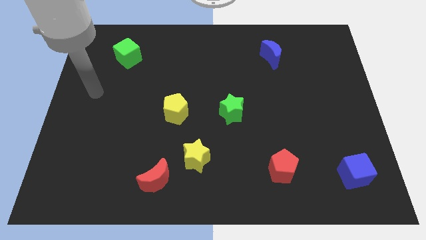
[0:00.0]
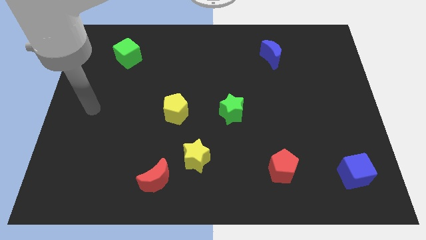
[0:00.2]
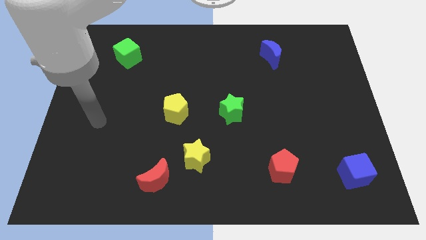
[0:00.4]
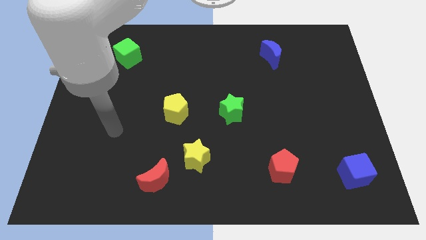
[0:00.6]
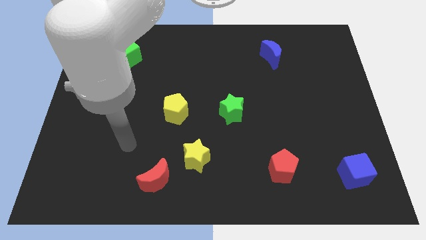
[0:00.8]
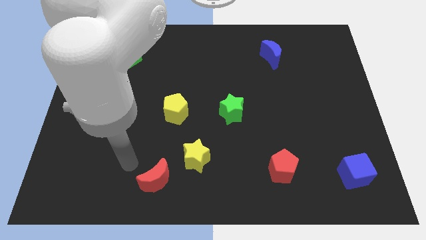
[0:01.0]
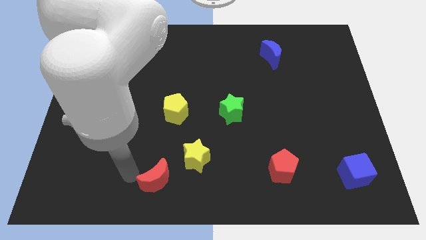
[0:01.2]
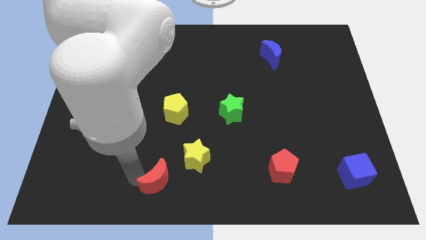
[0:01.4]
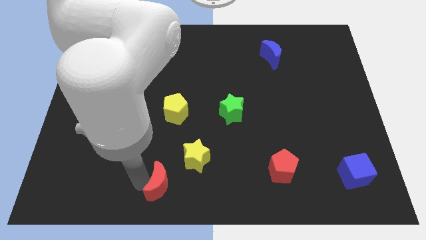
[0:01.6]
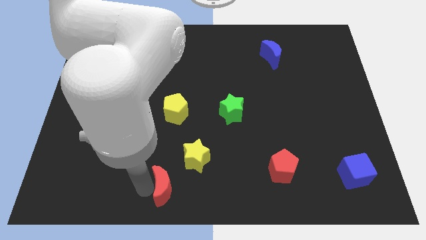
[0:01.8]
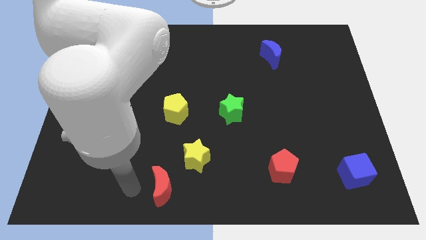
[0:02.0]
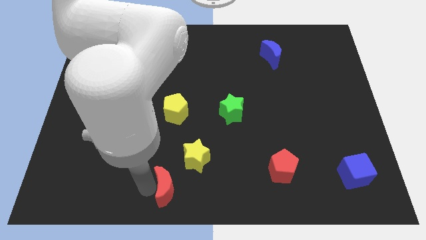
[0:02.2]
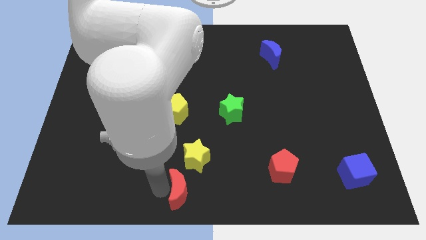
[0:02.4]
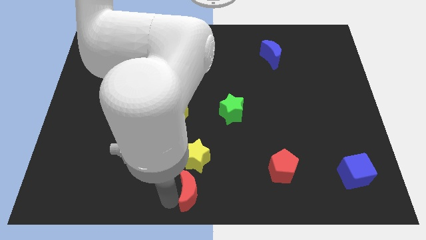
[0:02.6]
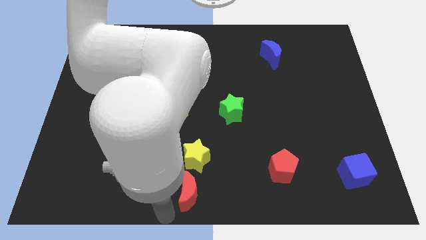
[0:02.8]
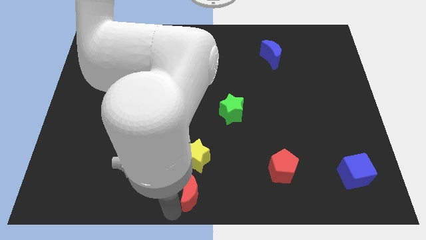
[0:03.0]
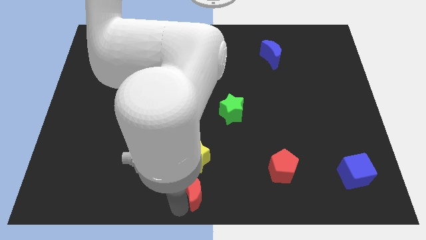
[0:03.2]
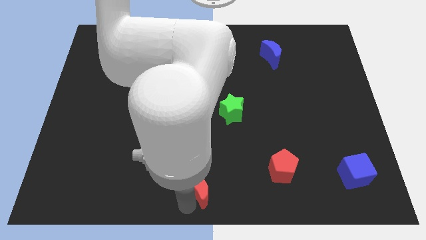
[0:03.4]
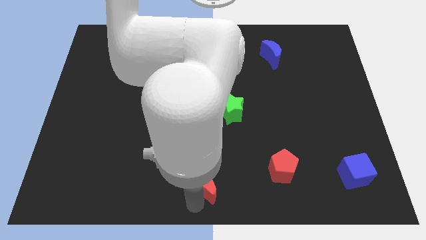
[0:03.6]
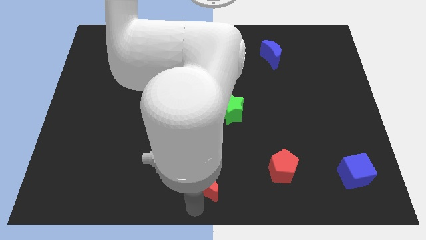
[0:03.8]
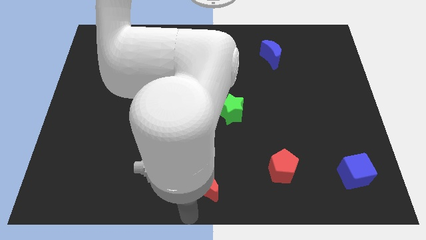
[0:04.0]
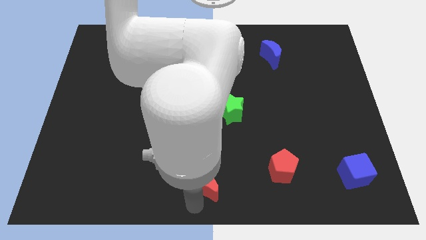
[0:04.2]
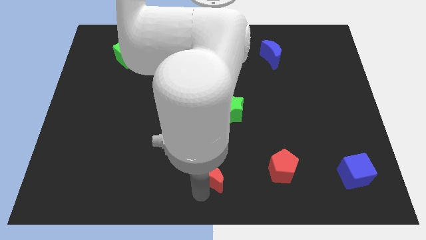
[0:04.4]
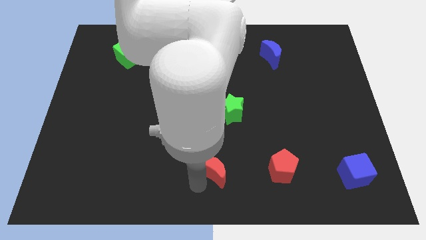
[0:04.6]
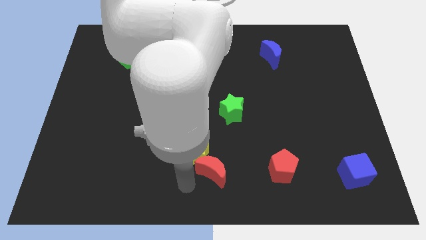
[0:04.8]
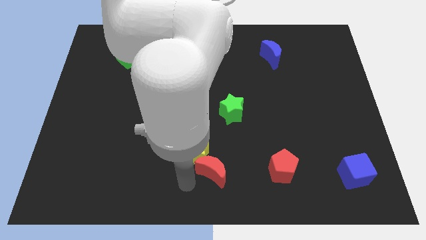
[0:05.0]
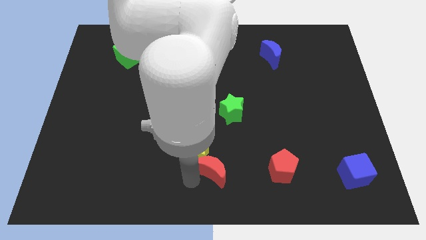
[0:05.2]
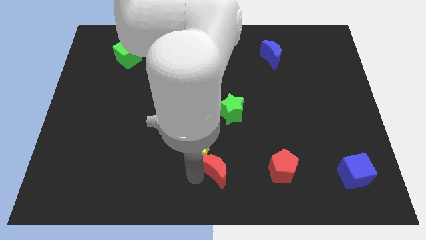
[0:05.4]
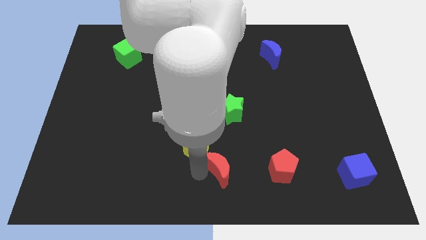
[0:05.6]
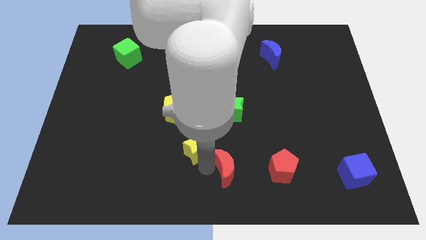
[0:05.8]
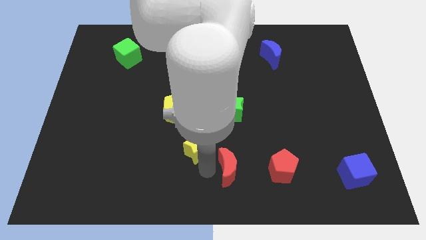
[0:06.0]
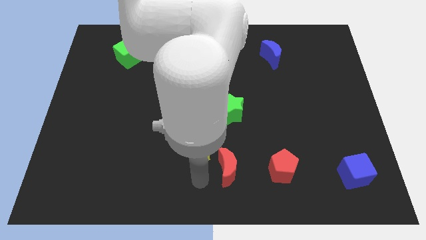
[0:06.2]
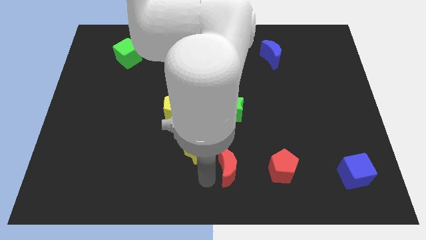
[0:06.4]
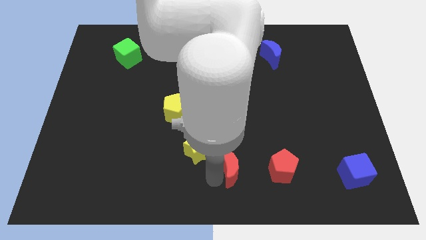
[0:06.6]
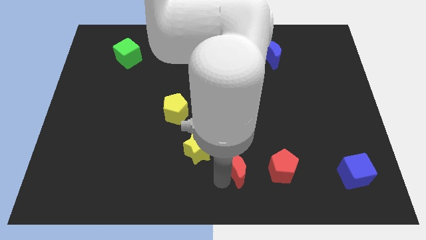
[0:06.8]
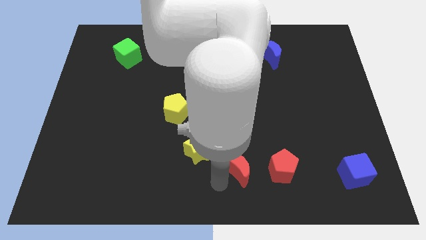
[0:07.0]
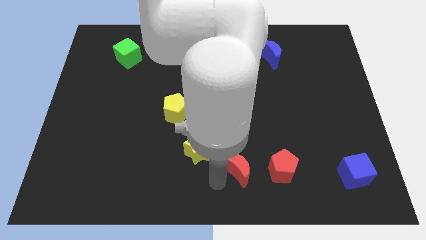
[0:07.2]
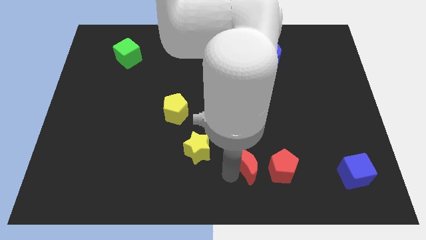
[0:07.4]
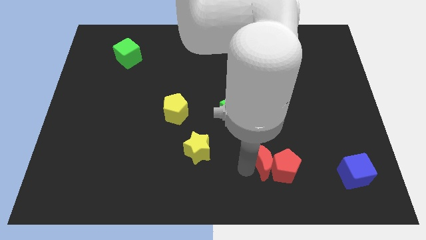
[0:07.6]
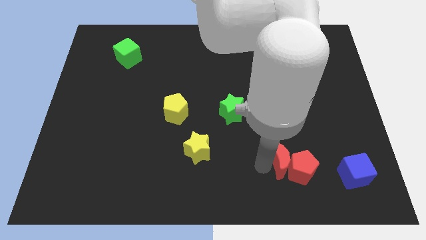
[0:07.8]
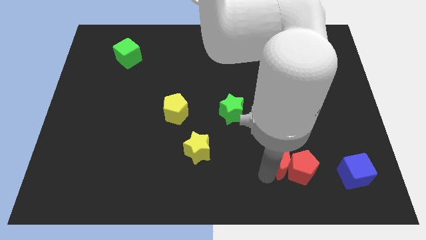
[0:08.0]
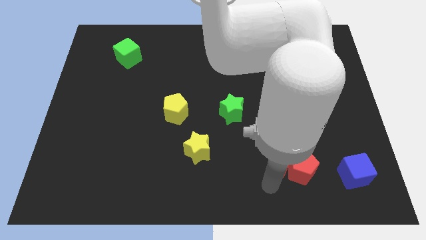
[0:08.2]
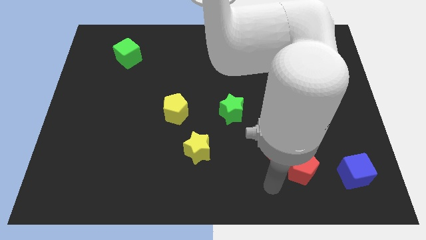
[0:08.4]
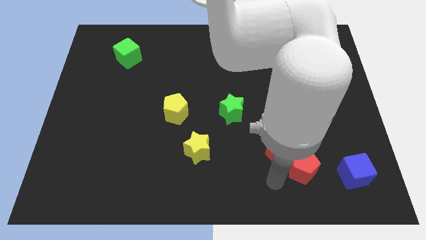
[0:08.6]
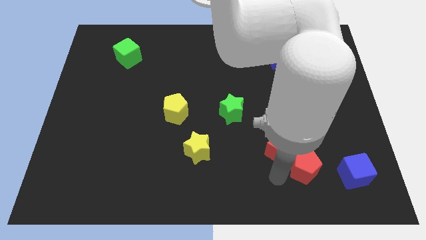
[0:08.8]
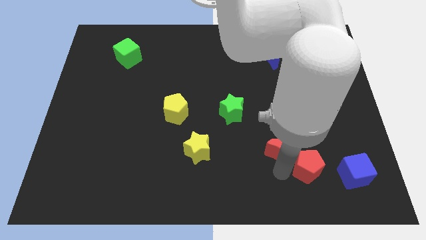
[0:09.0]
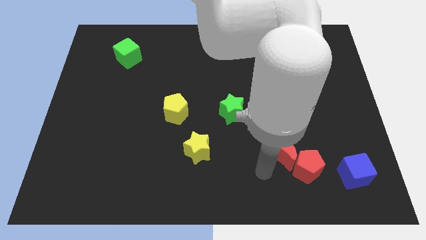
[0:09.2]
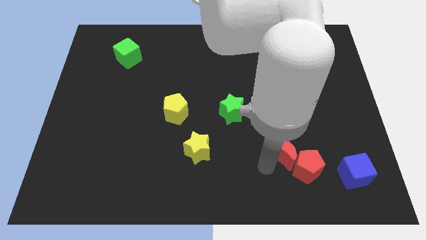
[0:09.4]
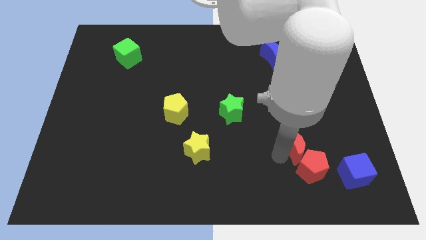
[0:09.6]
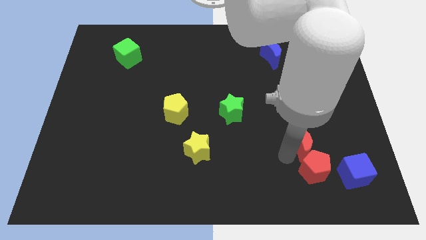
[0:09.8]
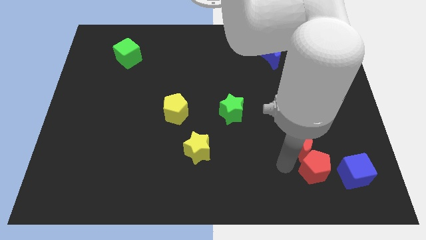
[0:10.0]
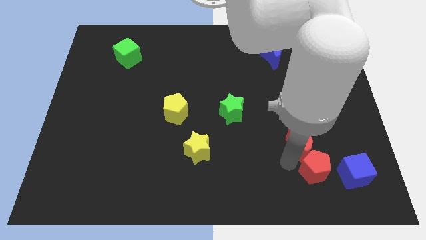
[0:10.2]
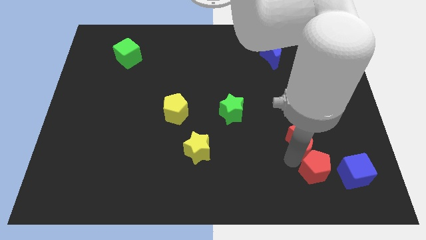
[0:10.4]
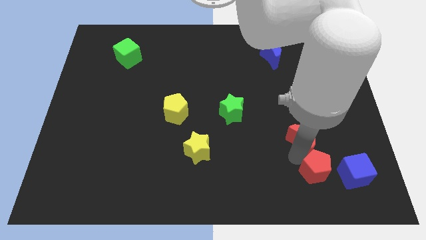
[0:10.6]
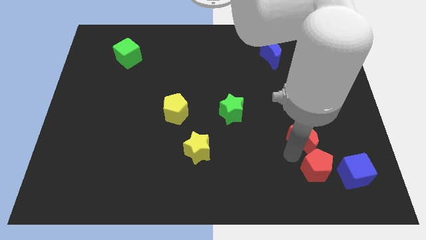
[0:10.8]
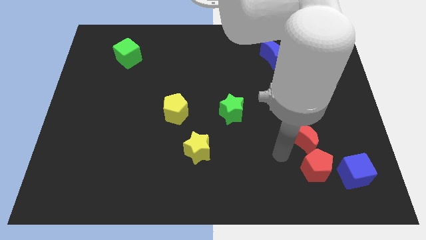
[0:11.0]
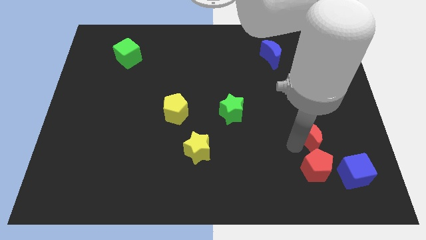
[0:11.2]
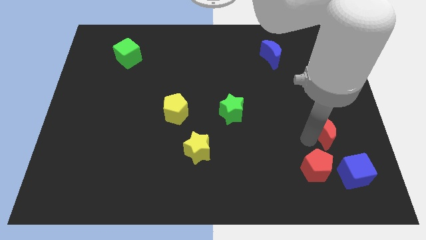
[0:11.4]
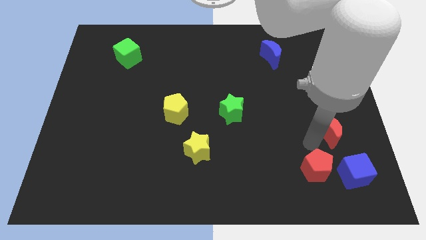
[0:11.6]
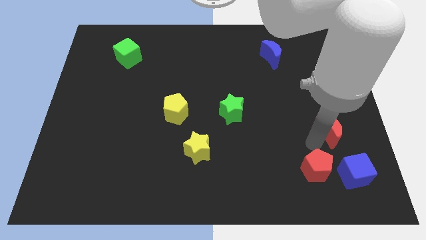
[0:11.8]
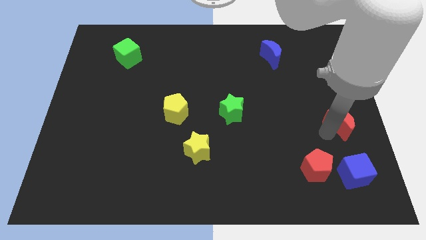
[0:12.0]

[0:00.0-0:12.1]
push the red moon to the right side of the board
